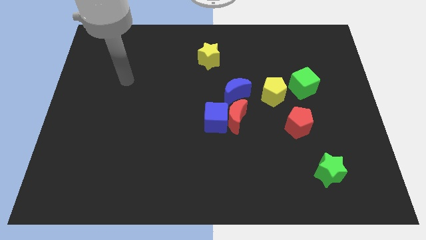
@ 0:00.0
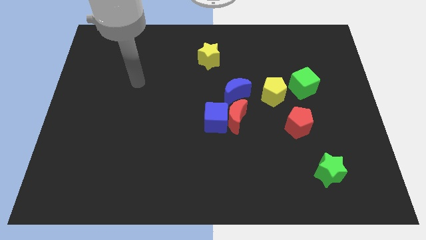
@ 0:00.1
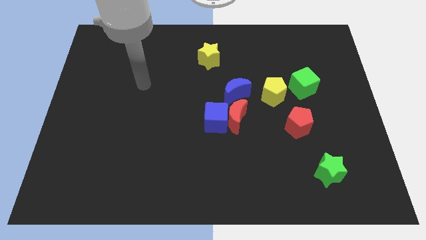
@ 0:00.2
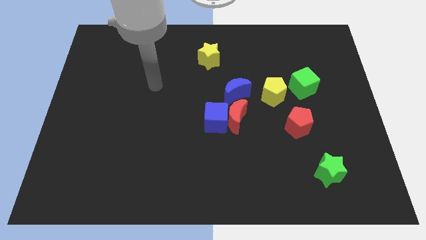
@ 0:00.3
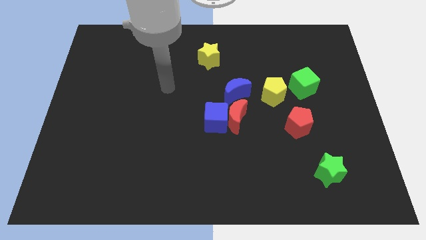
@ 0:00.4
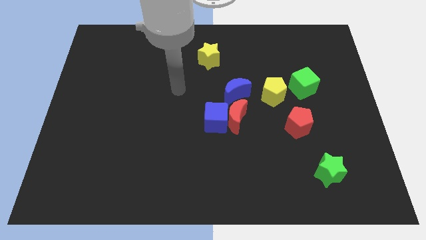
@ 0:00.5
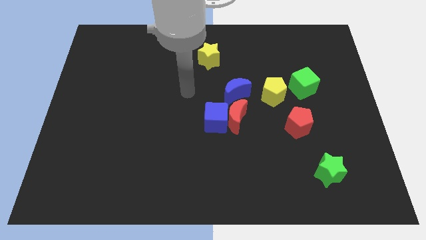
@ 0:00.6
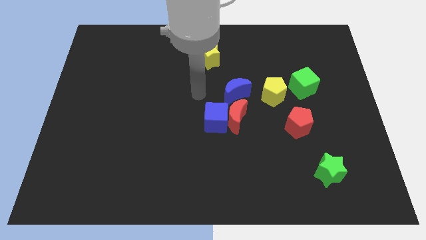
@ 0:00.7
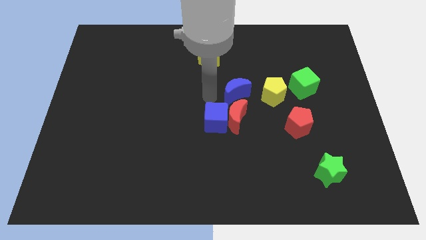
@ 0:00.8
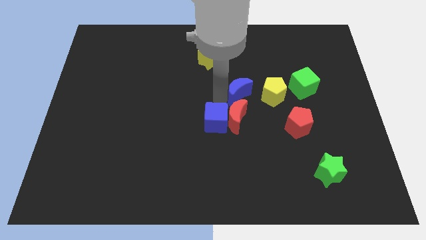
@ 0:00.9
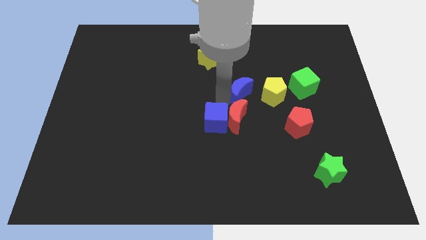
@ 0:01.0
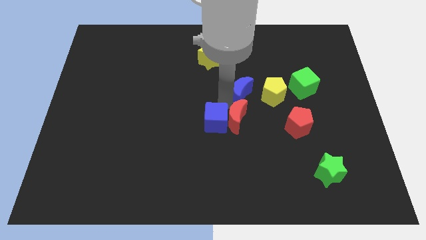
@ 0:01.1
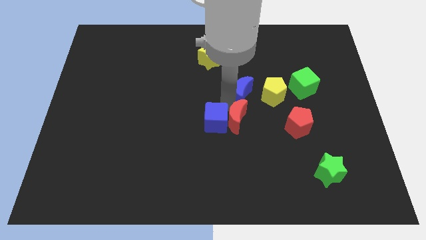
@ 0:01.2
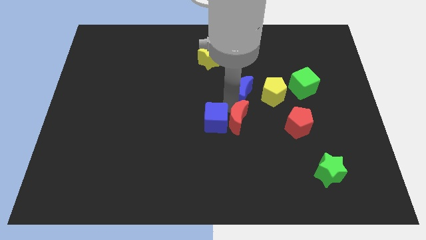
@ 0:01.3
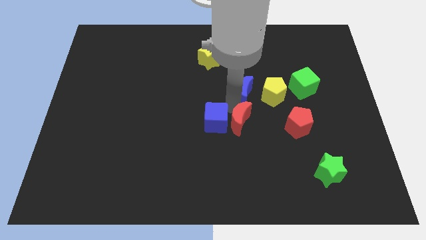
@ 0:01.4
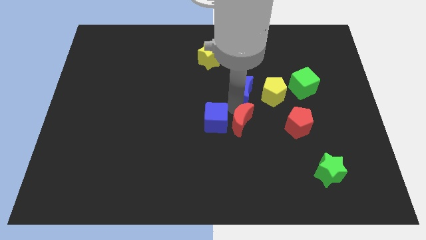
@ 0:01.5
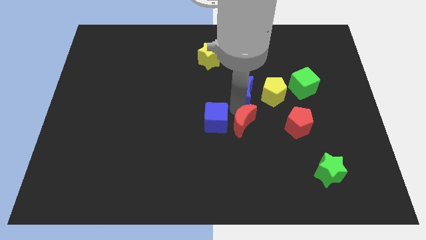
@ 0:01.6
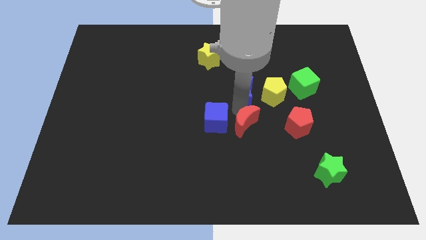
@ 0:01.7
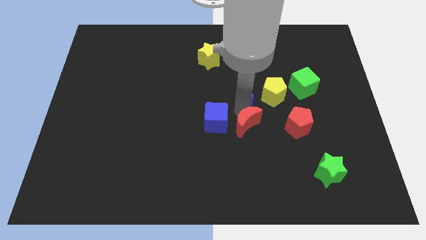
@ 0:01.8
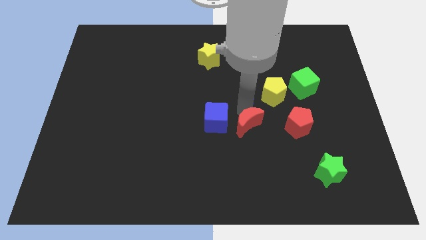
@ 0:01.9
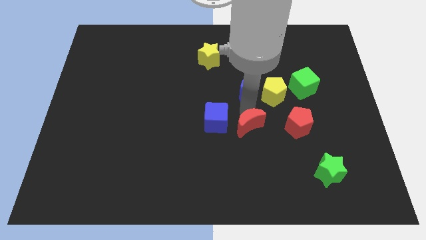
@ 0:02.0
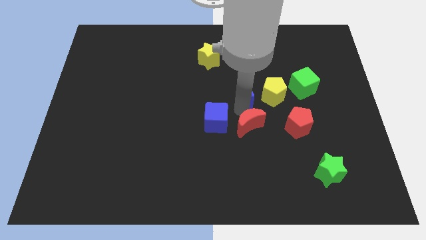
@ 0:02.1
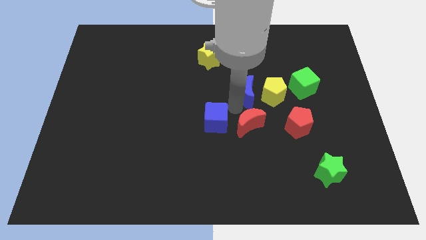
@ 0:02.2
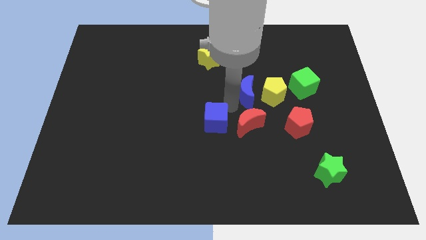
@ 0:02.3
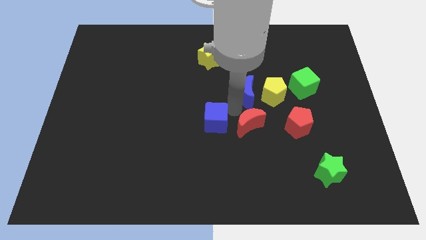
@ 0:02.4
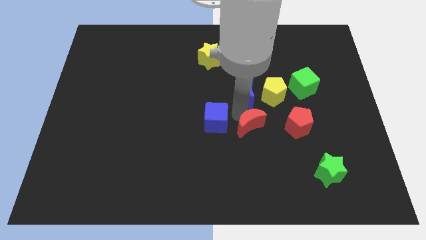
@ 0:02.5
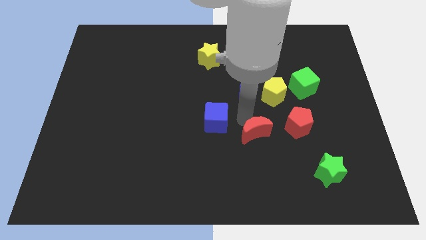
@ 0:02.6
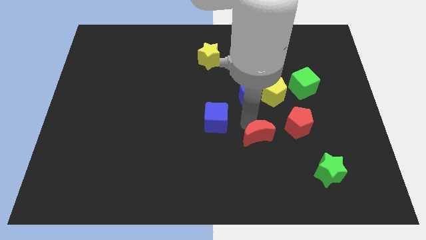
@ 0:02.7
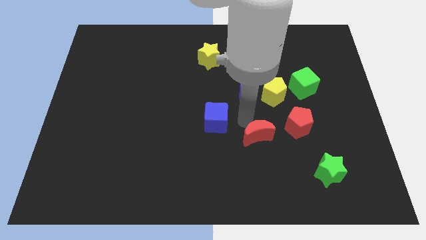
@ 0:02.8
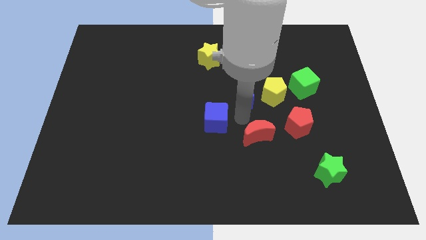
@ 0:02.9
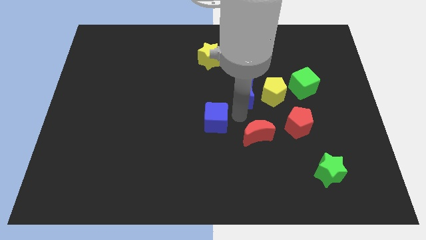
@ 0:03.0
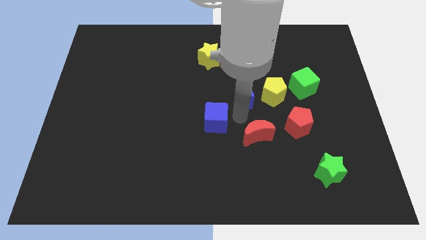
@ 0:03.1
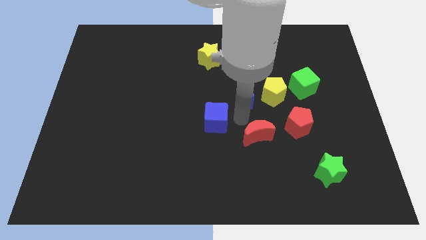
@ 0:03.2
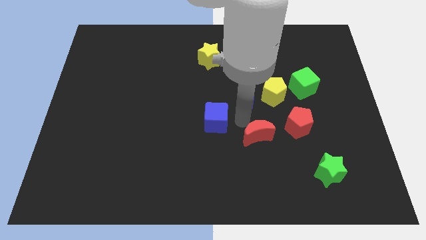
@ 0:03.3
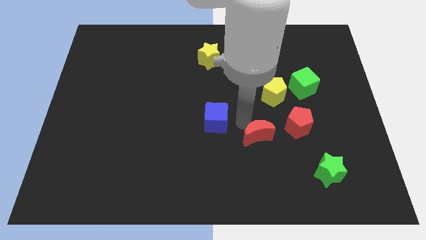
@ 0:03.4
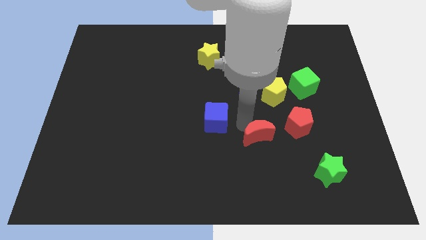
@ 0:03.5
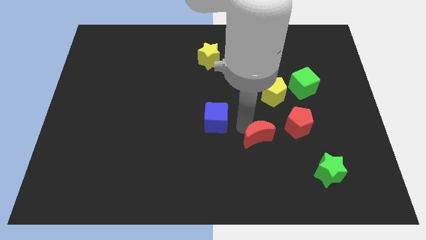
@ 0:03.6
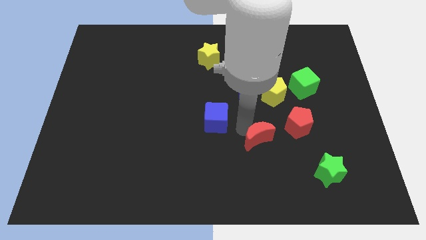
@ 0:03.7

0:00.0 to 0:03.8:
separate the red moon from the blue cube and blue moon

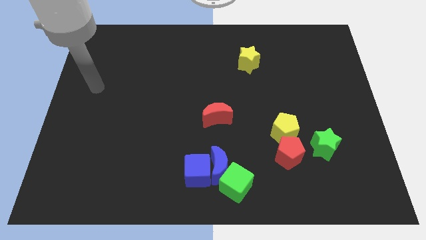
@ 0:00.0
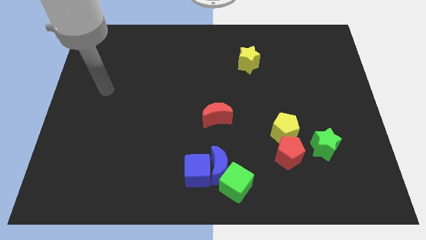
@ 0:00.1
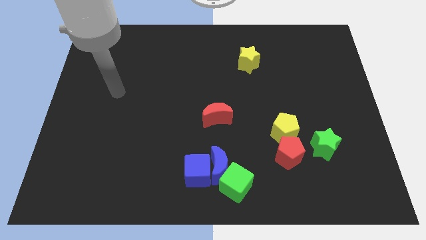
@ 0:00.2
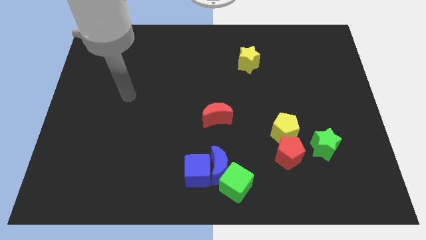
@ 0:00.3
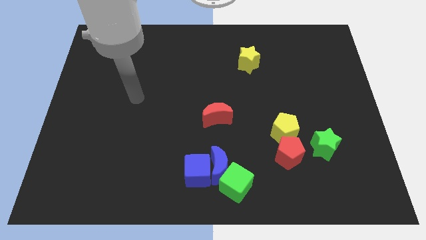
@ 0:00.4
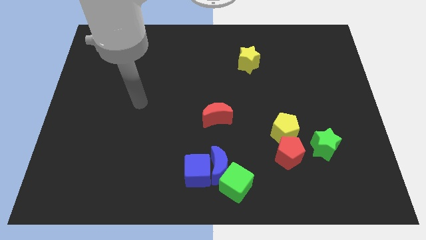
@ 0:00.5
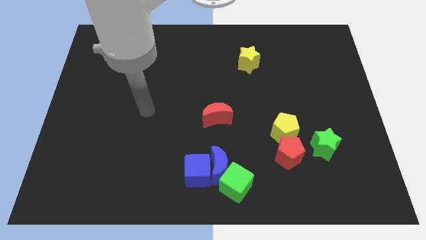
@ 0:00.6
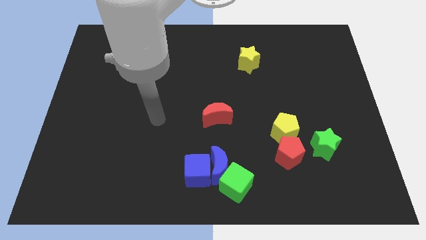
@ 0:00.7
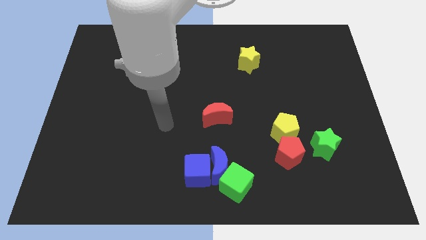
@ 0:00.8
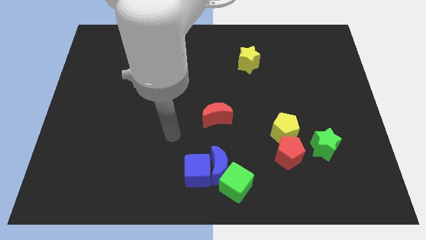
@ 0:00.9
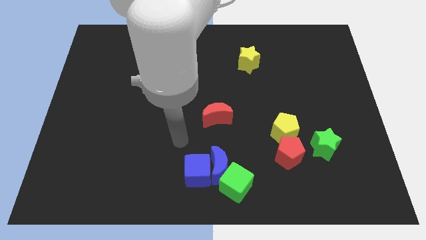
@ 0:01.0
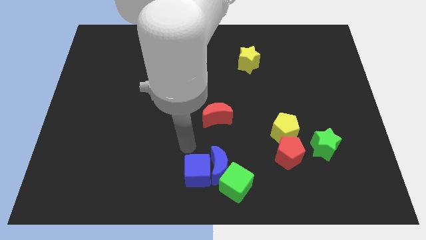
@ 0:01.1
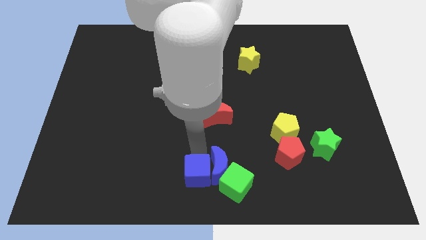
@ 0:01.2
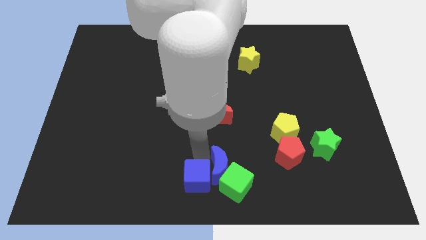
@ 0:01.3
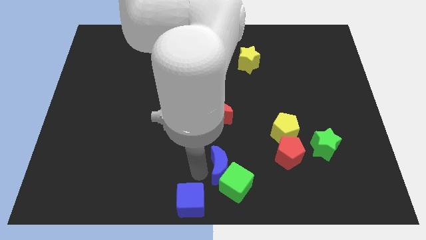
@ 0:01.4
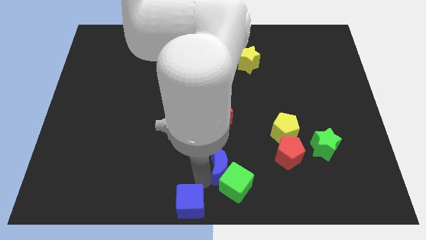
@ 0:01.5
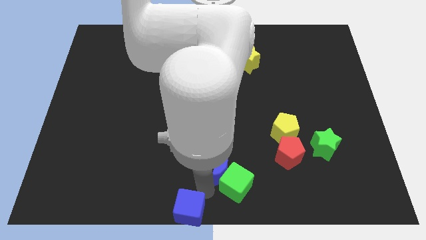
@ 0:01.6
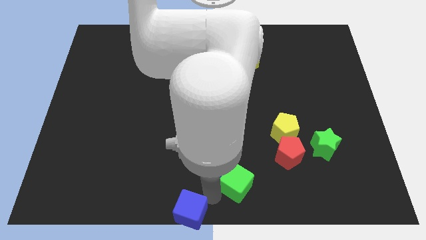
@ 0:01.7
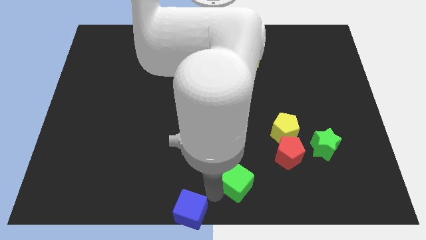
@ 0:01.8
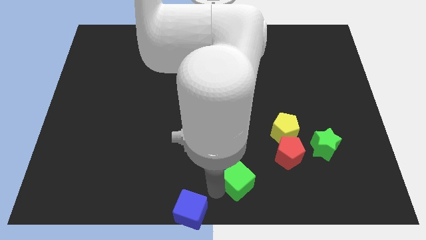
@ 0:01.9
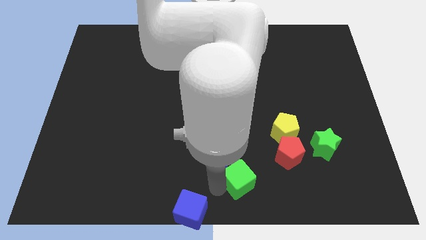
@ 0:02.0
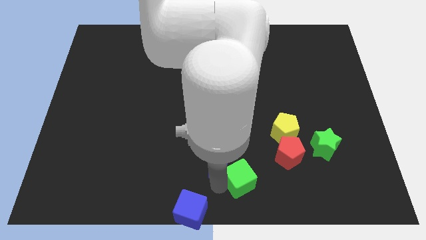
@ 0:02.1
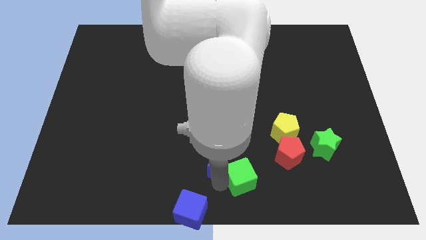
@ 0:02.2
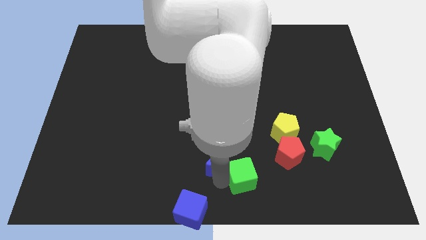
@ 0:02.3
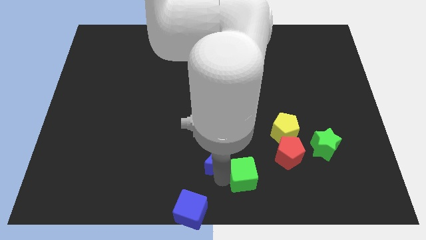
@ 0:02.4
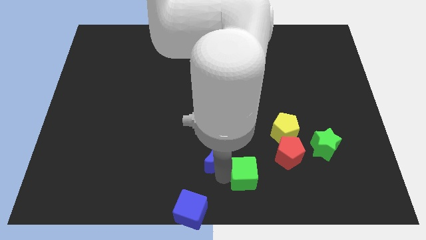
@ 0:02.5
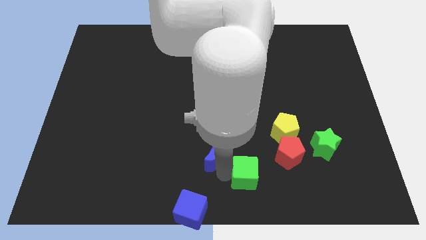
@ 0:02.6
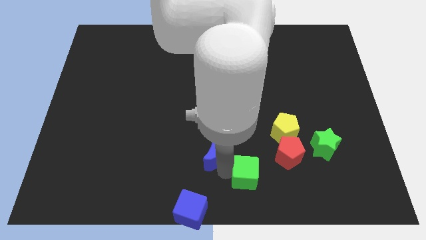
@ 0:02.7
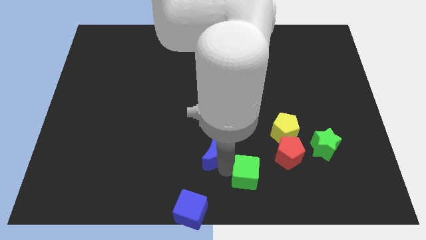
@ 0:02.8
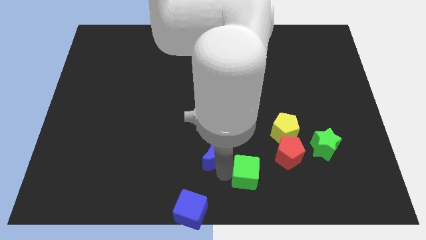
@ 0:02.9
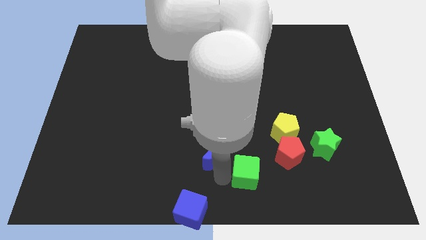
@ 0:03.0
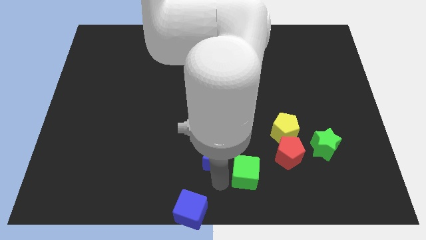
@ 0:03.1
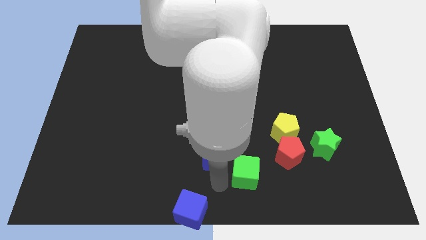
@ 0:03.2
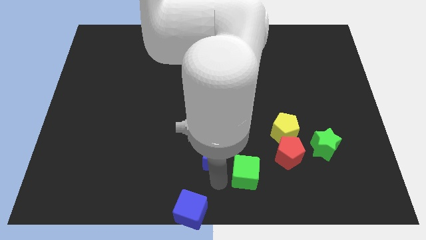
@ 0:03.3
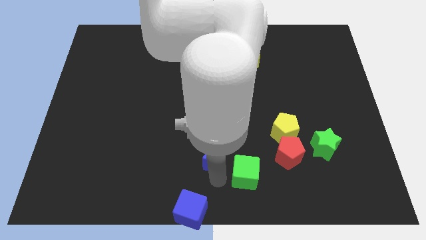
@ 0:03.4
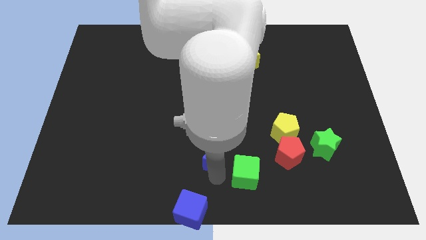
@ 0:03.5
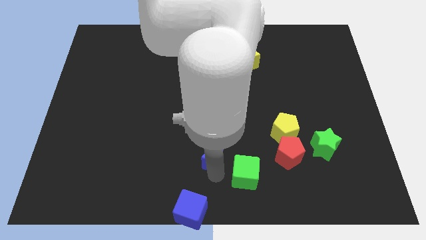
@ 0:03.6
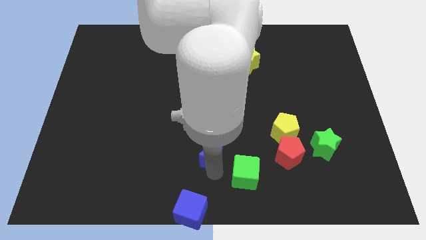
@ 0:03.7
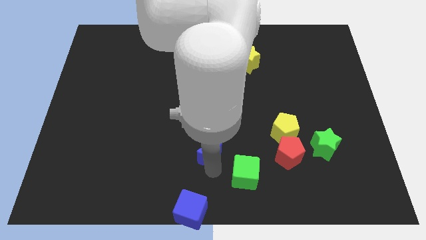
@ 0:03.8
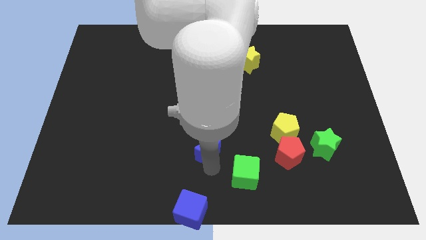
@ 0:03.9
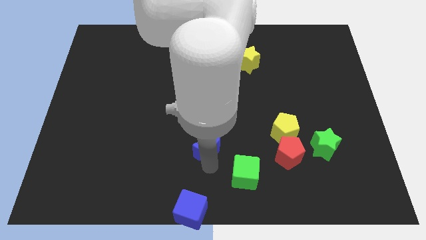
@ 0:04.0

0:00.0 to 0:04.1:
move the blue moon away from the blue cube and green cube

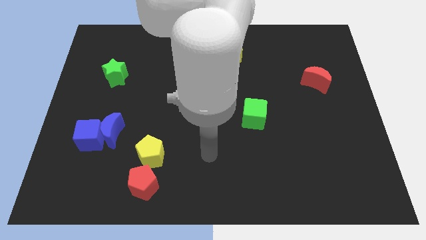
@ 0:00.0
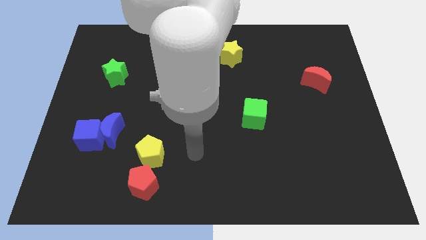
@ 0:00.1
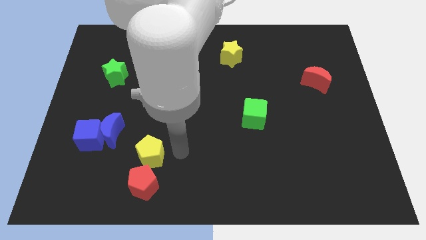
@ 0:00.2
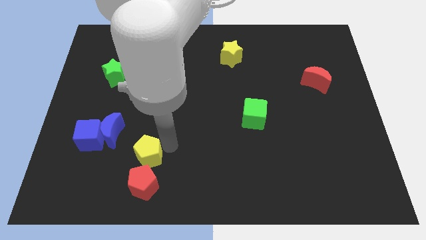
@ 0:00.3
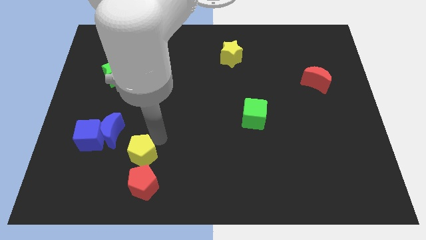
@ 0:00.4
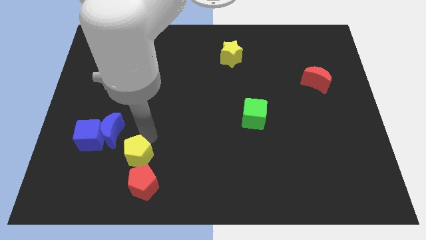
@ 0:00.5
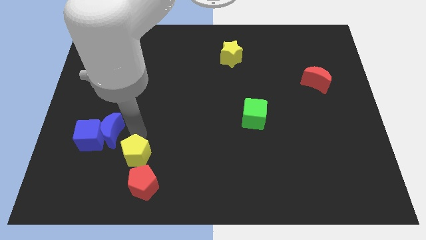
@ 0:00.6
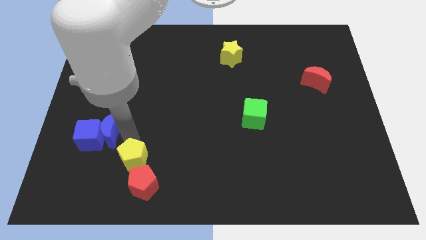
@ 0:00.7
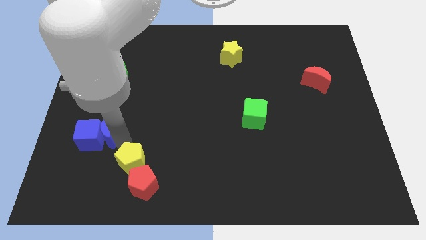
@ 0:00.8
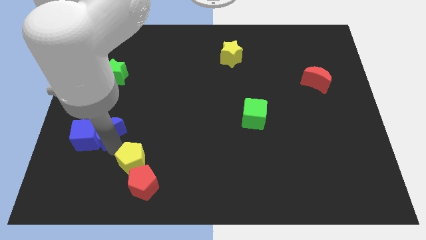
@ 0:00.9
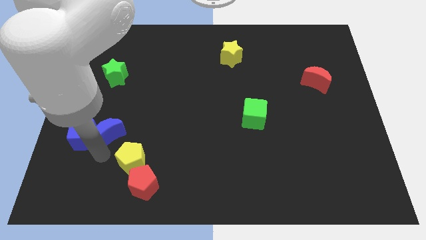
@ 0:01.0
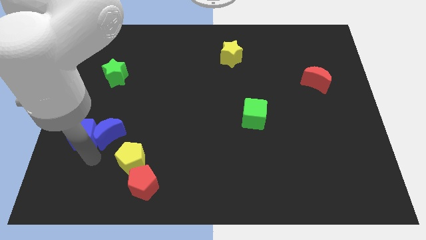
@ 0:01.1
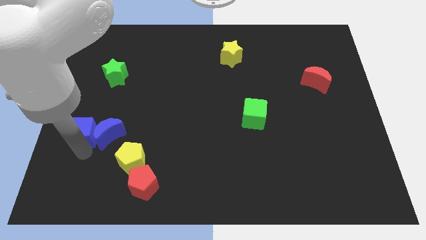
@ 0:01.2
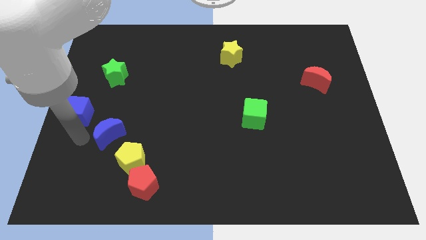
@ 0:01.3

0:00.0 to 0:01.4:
move the blue moon away from the blue cube
